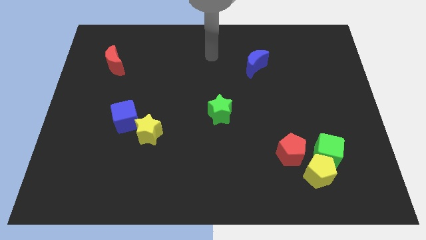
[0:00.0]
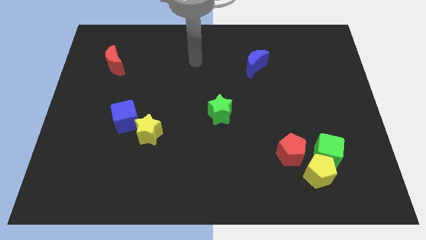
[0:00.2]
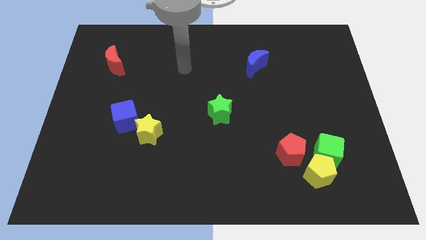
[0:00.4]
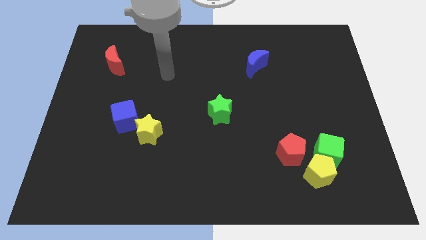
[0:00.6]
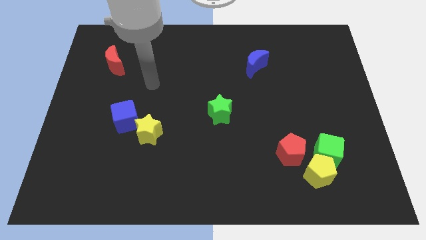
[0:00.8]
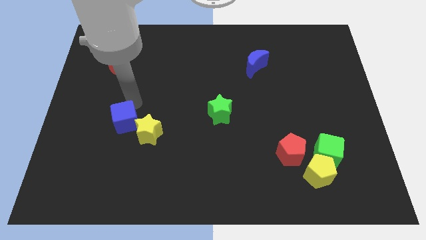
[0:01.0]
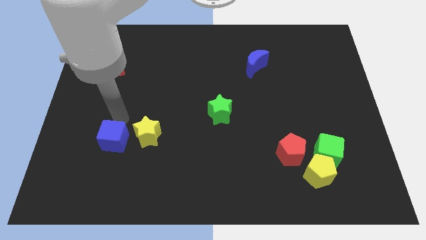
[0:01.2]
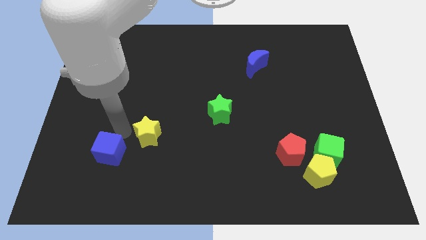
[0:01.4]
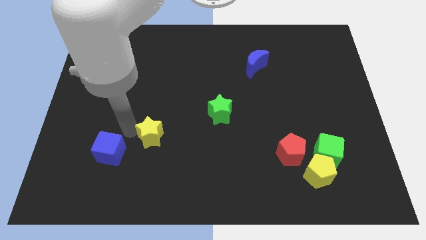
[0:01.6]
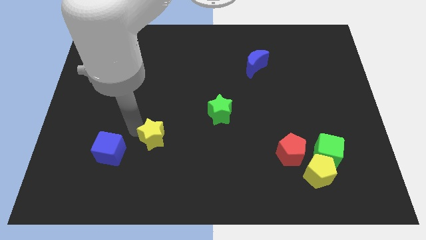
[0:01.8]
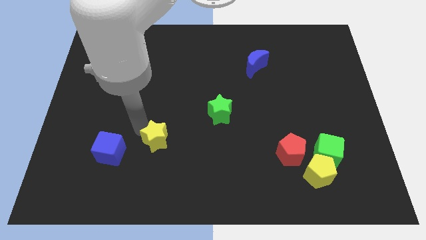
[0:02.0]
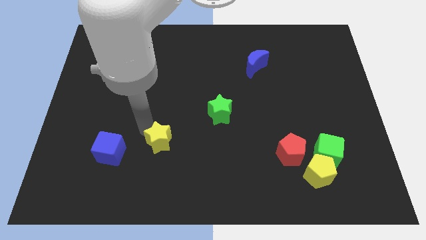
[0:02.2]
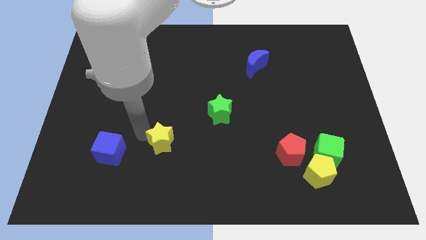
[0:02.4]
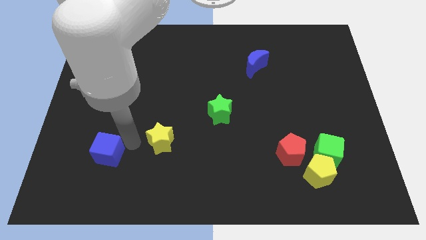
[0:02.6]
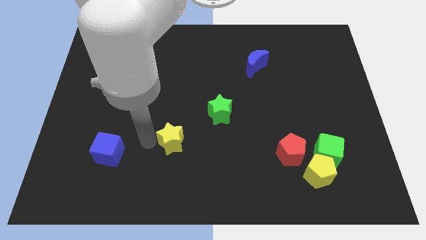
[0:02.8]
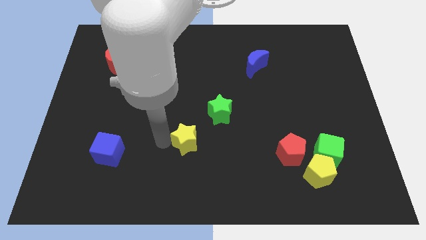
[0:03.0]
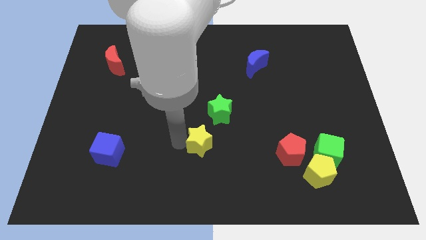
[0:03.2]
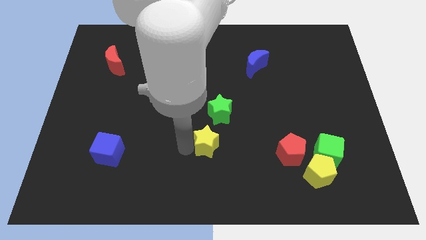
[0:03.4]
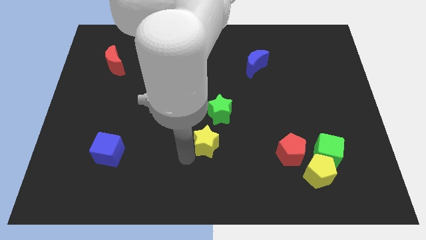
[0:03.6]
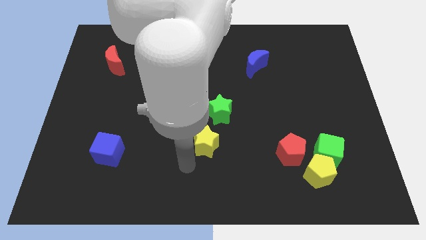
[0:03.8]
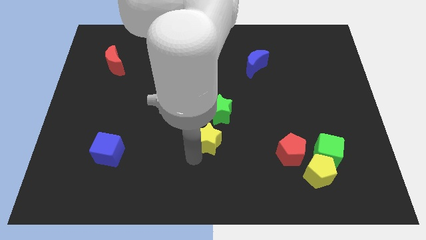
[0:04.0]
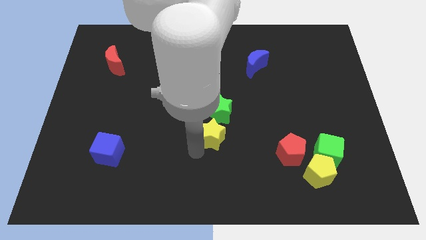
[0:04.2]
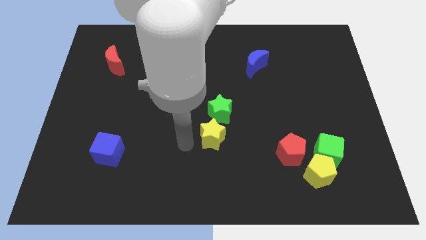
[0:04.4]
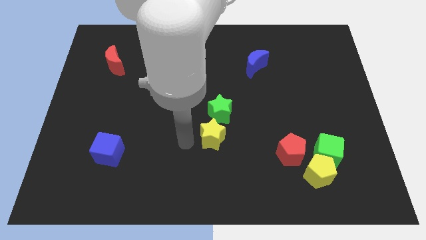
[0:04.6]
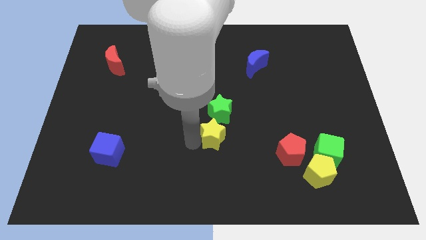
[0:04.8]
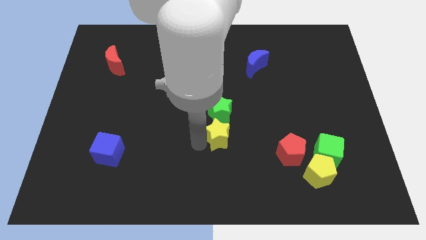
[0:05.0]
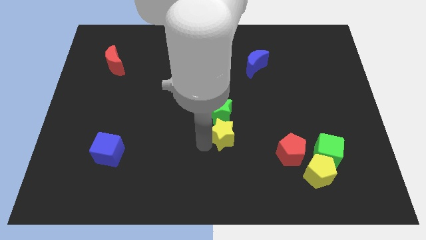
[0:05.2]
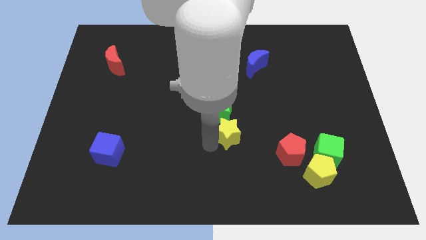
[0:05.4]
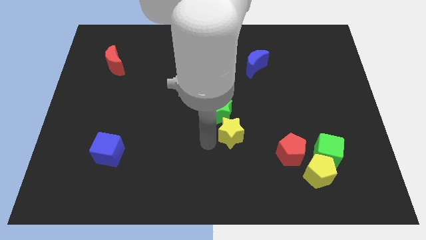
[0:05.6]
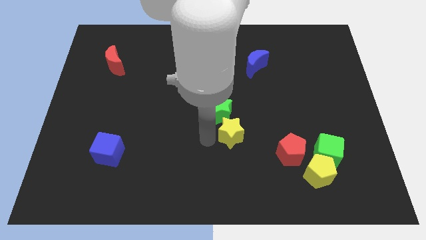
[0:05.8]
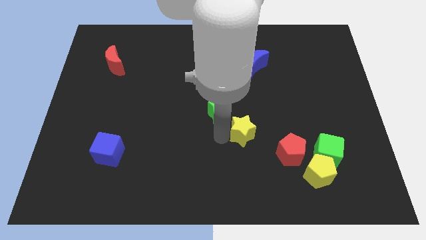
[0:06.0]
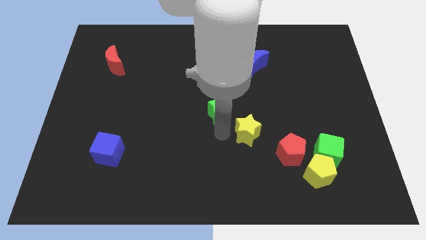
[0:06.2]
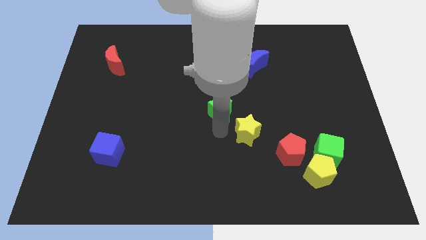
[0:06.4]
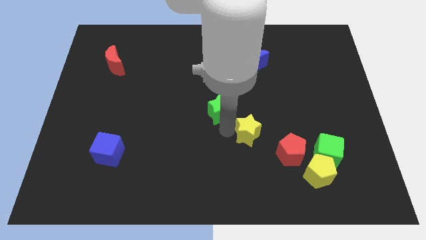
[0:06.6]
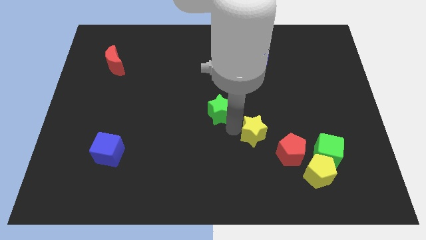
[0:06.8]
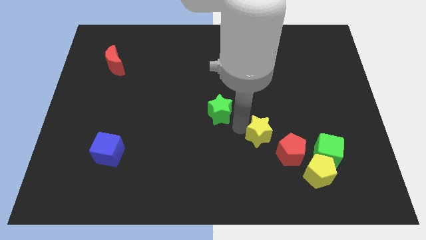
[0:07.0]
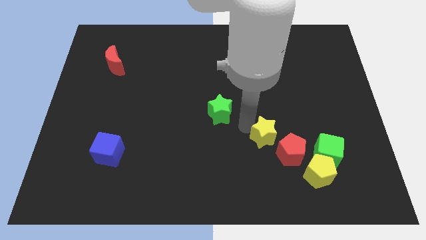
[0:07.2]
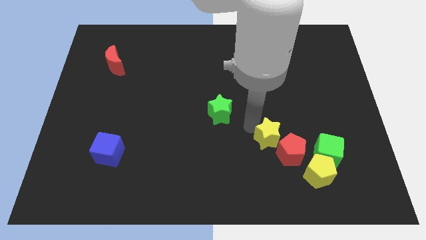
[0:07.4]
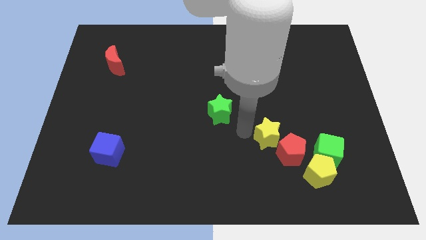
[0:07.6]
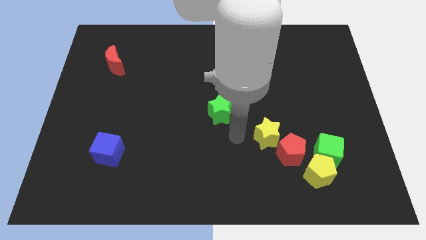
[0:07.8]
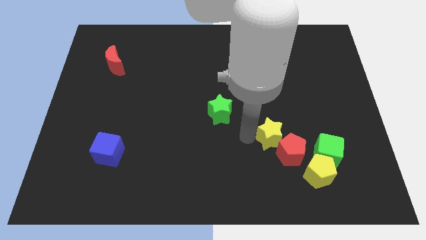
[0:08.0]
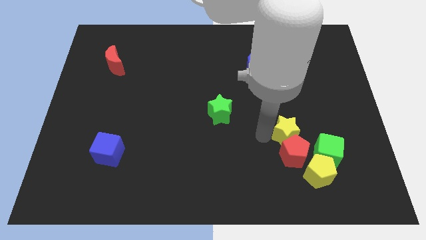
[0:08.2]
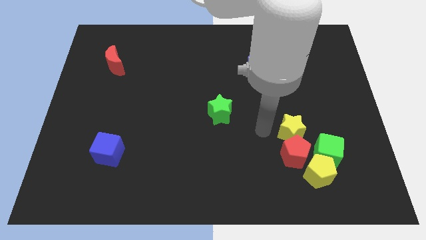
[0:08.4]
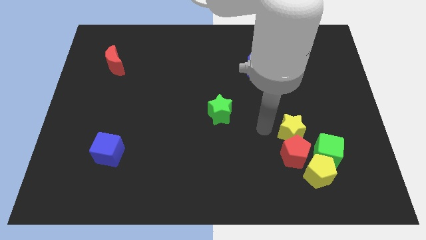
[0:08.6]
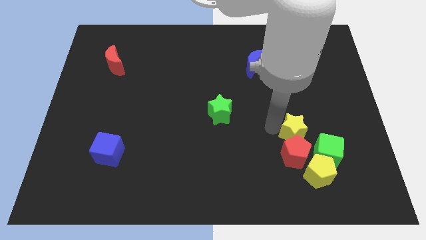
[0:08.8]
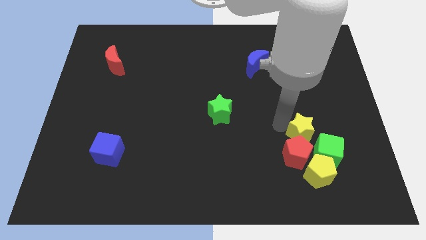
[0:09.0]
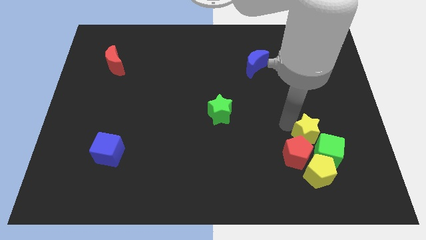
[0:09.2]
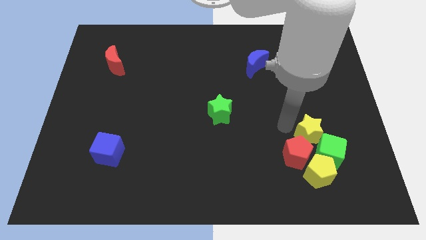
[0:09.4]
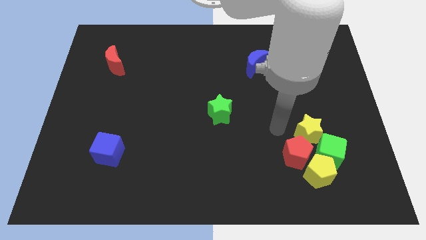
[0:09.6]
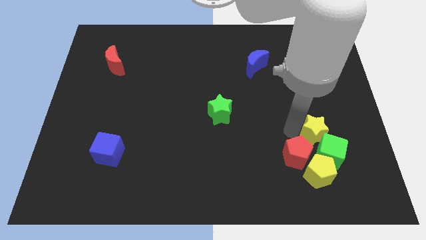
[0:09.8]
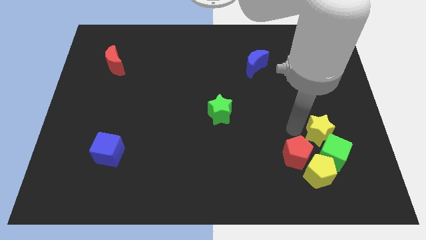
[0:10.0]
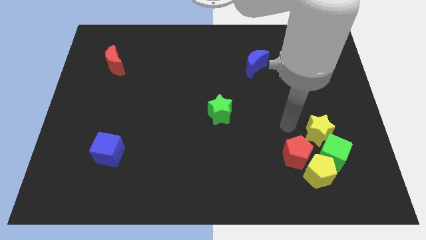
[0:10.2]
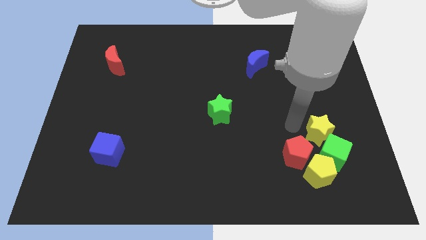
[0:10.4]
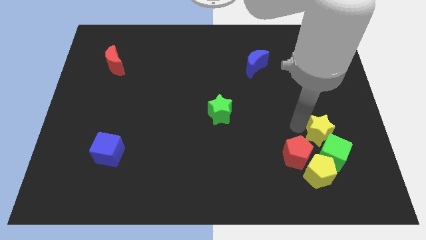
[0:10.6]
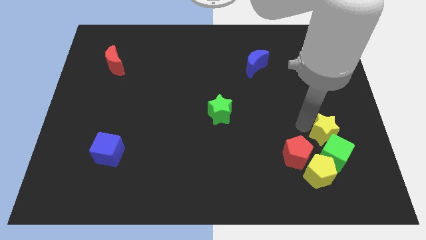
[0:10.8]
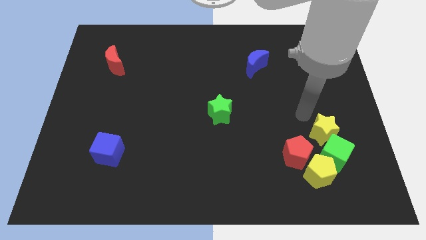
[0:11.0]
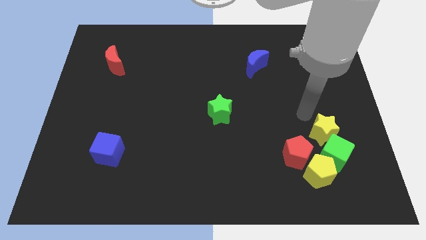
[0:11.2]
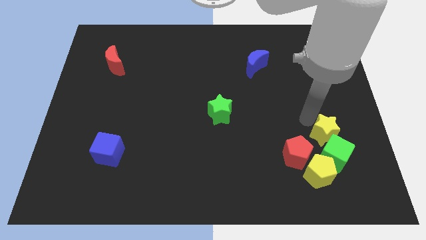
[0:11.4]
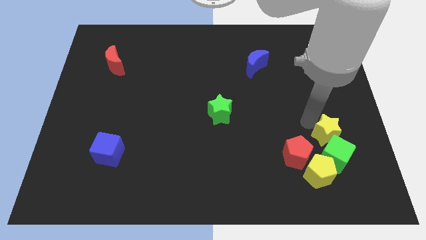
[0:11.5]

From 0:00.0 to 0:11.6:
move the yellow star diagonally up and to the right of the yellow pentagon

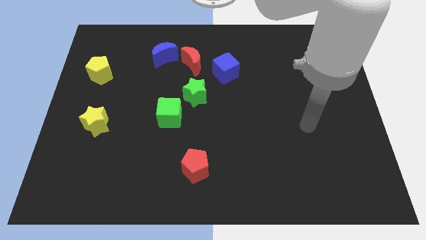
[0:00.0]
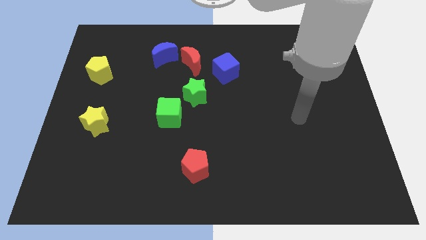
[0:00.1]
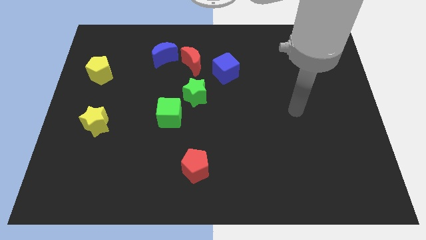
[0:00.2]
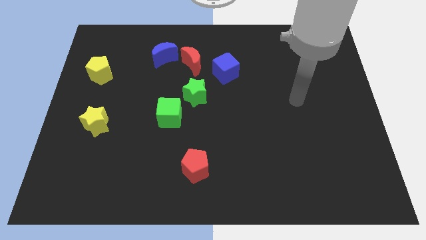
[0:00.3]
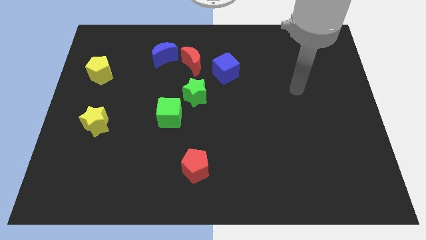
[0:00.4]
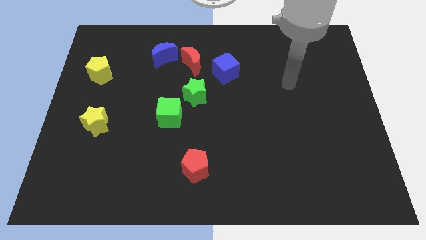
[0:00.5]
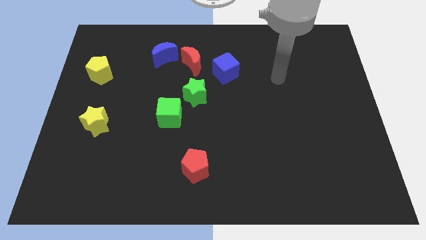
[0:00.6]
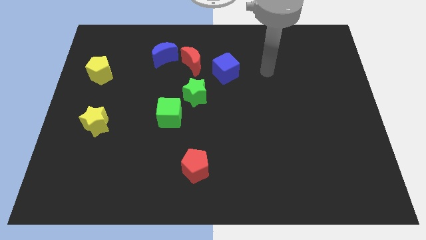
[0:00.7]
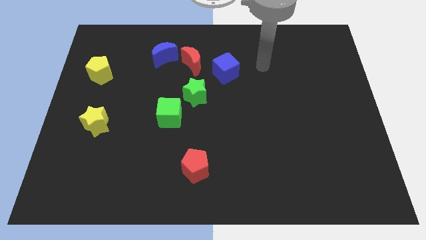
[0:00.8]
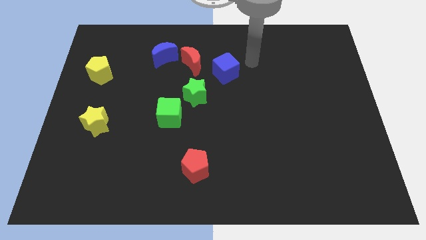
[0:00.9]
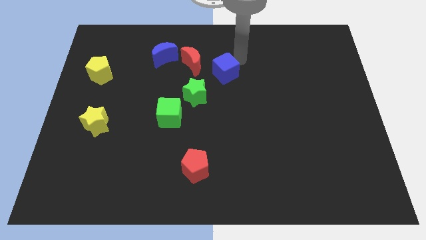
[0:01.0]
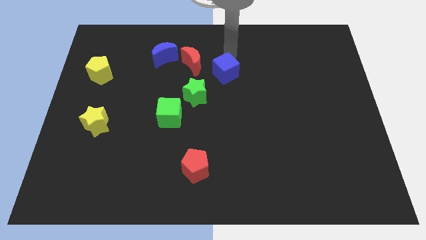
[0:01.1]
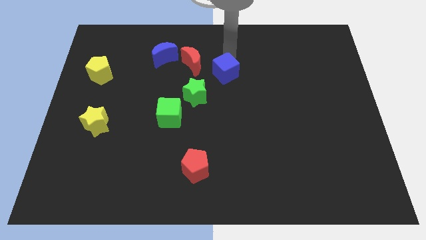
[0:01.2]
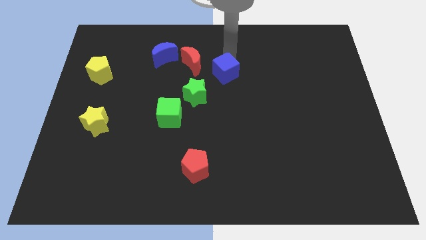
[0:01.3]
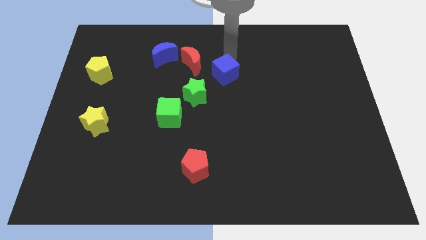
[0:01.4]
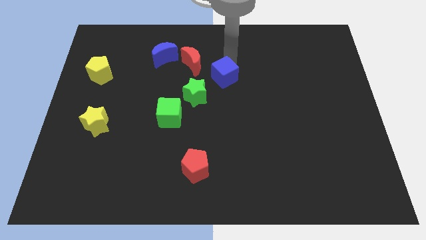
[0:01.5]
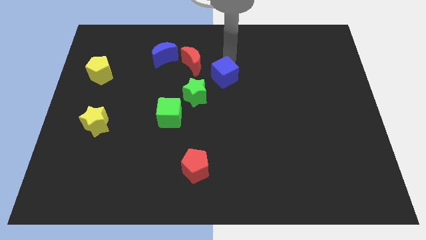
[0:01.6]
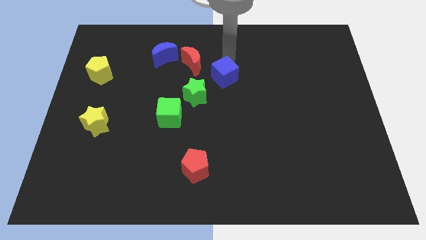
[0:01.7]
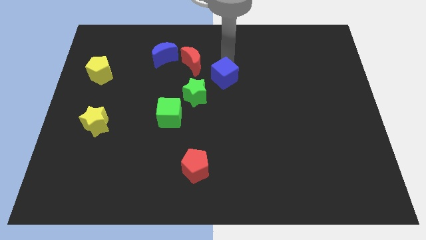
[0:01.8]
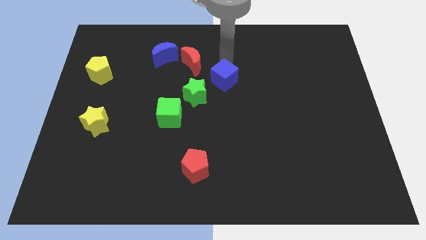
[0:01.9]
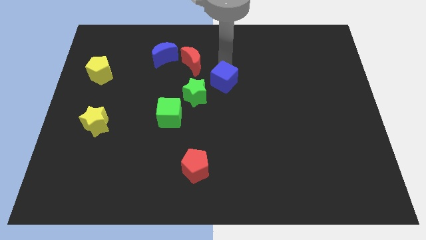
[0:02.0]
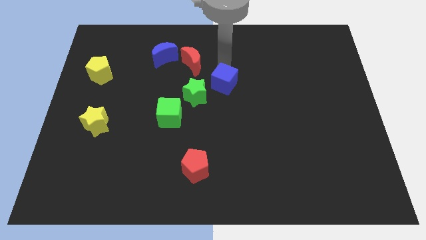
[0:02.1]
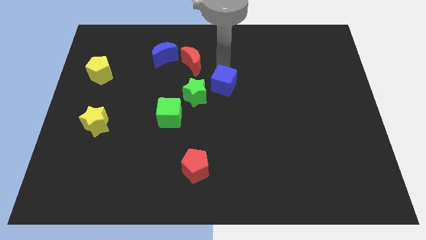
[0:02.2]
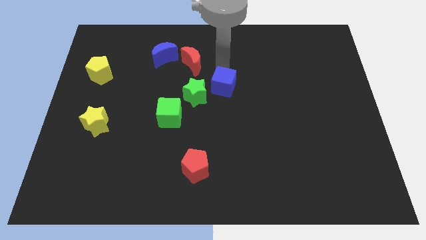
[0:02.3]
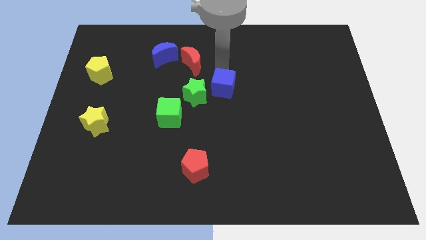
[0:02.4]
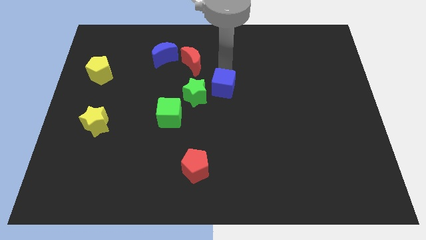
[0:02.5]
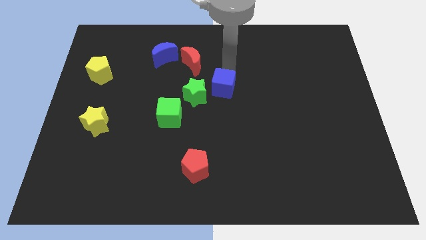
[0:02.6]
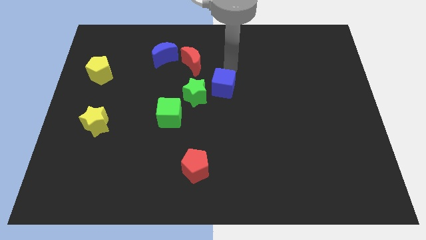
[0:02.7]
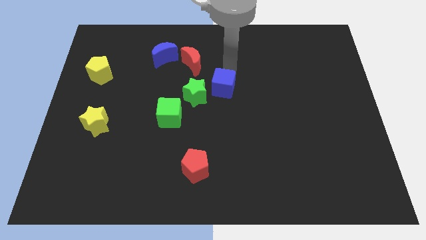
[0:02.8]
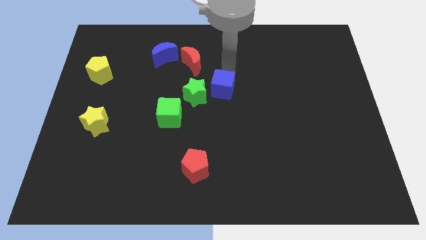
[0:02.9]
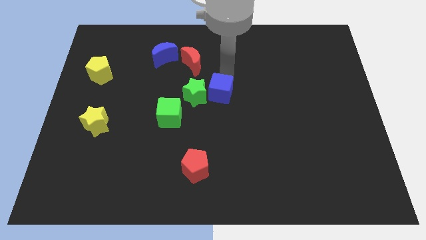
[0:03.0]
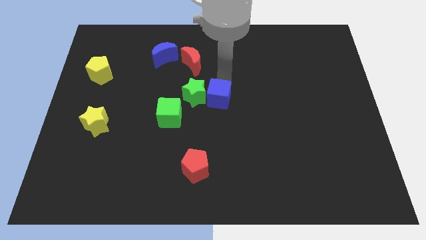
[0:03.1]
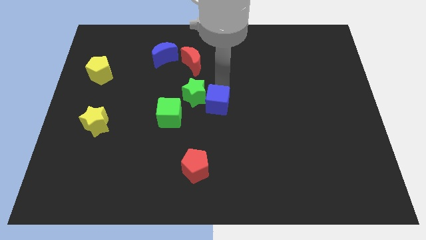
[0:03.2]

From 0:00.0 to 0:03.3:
slide the blue cube to the right side of the green cube
